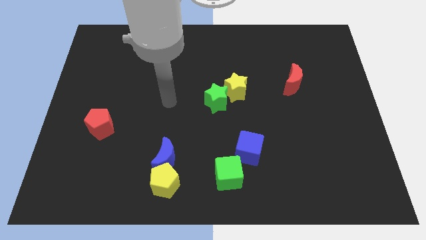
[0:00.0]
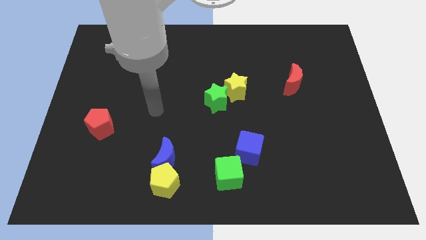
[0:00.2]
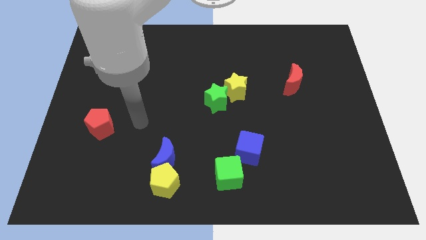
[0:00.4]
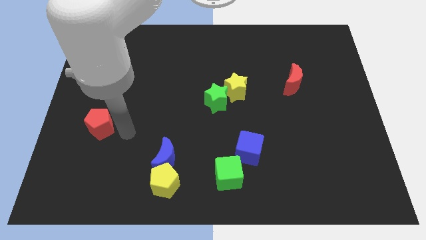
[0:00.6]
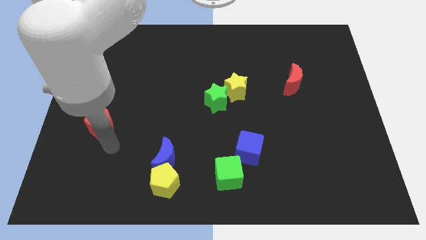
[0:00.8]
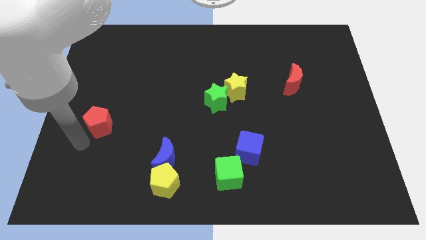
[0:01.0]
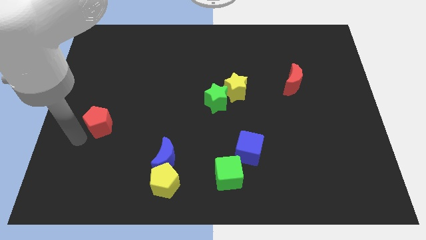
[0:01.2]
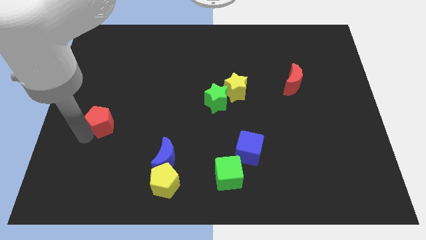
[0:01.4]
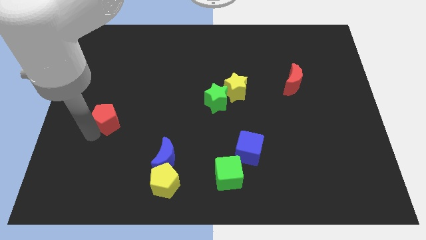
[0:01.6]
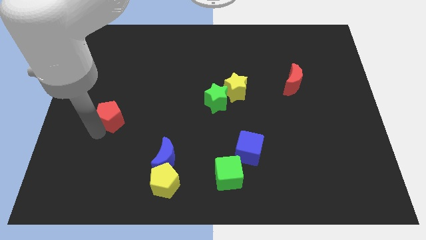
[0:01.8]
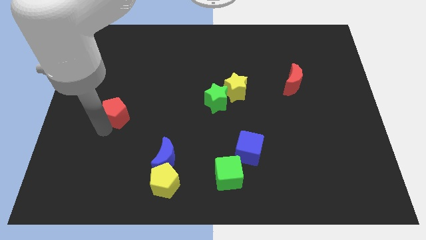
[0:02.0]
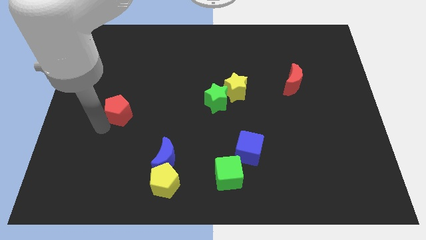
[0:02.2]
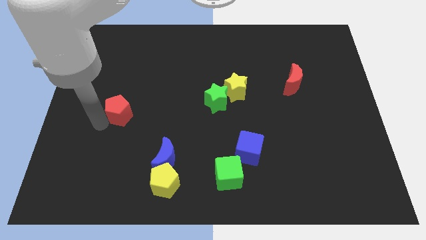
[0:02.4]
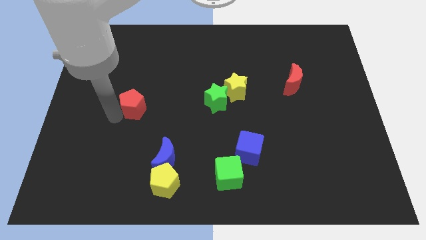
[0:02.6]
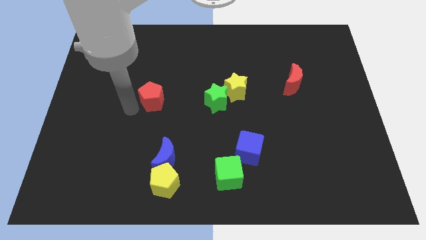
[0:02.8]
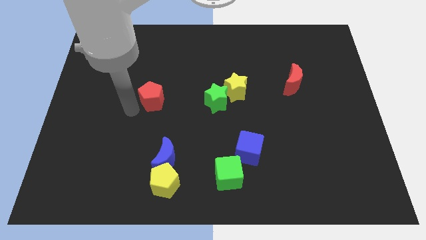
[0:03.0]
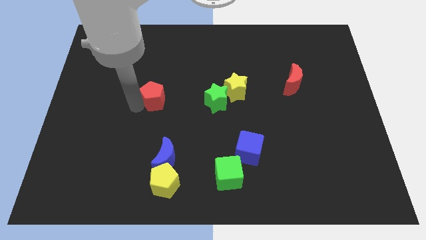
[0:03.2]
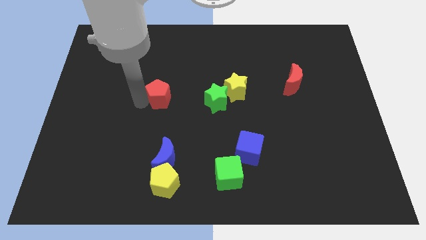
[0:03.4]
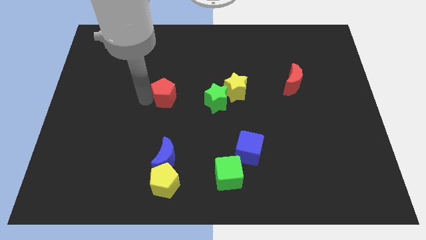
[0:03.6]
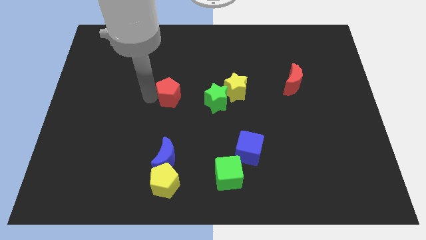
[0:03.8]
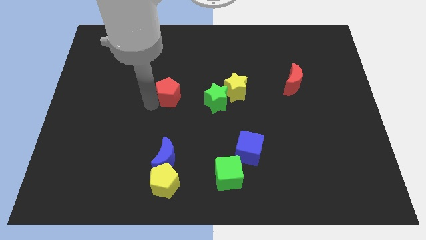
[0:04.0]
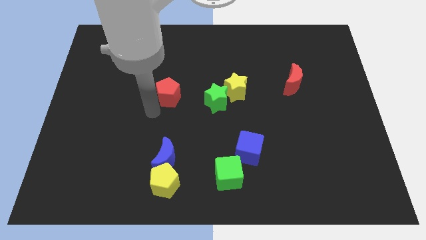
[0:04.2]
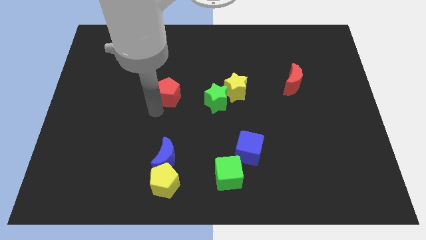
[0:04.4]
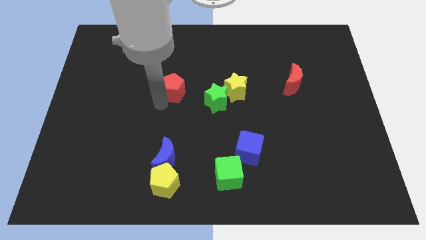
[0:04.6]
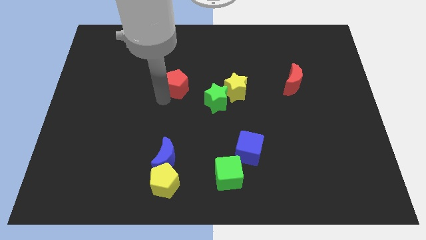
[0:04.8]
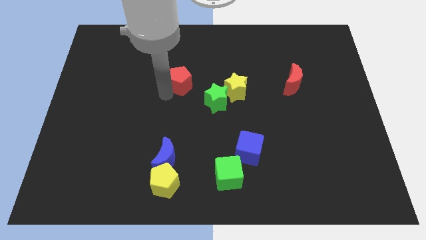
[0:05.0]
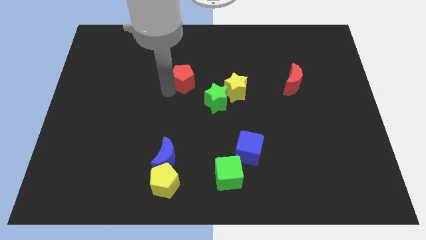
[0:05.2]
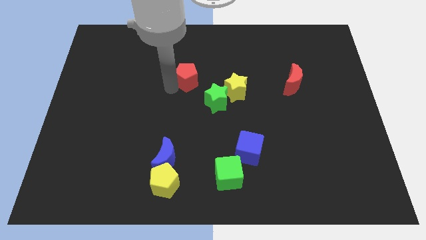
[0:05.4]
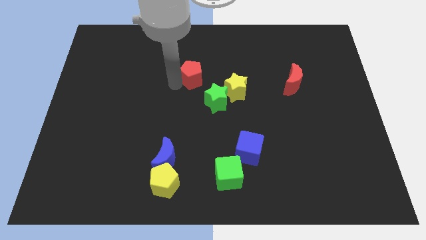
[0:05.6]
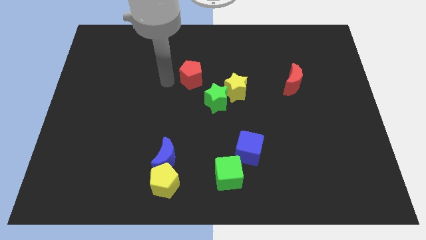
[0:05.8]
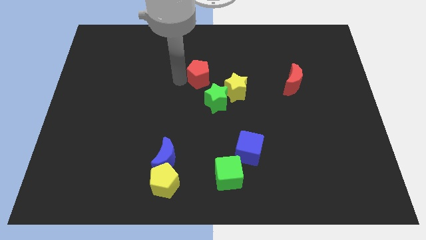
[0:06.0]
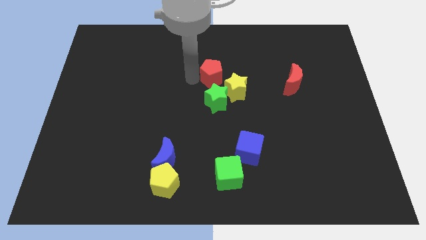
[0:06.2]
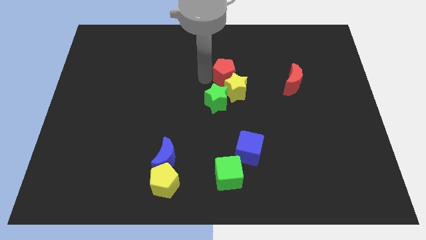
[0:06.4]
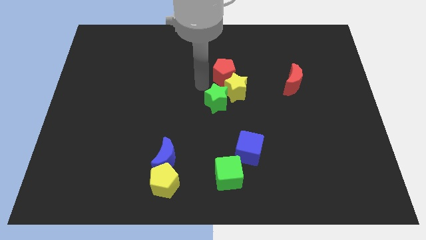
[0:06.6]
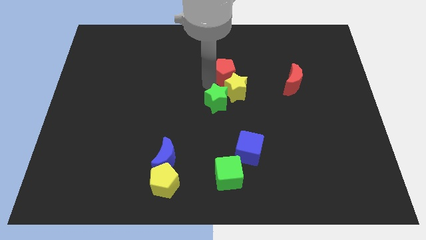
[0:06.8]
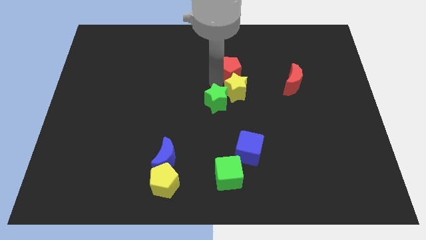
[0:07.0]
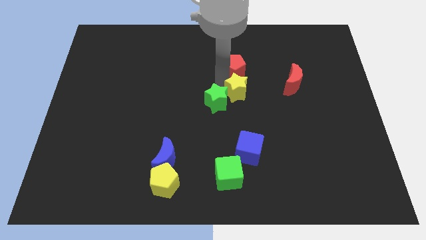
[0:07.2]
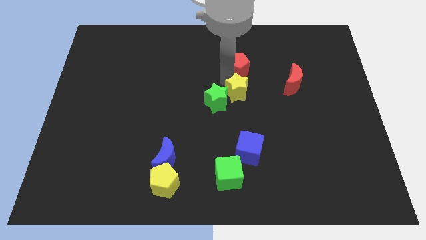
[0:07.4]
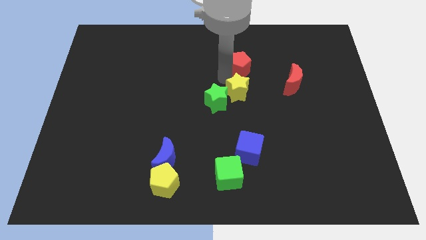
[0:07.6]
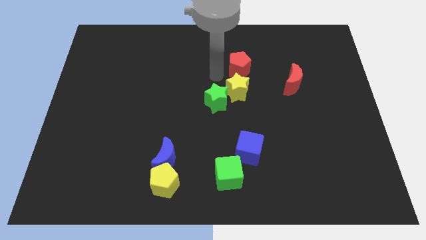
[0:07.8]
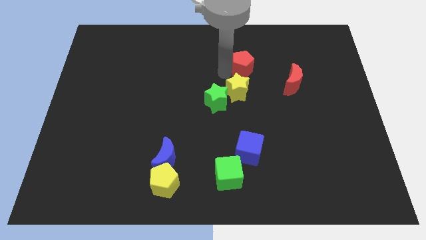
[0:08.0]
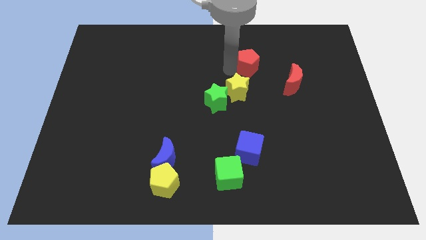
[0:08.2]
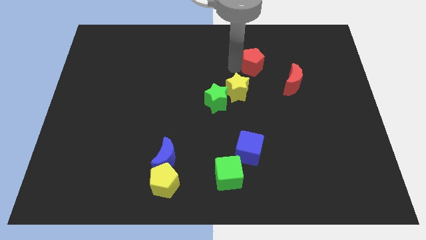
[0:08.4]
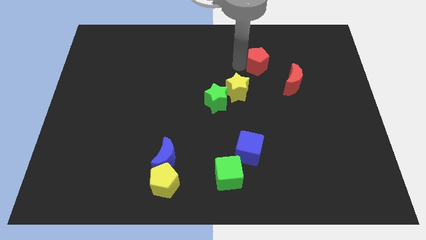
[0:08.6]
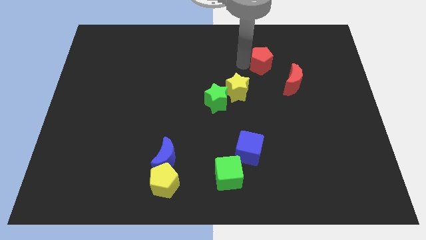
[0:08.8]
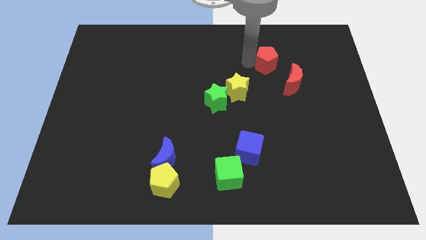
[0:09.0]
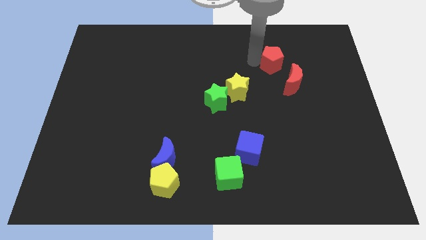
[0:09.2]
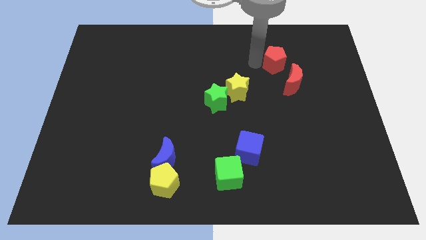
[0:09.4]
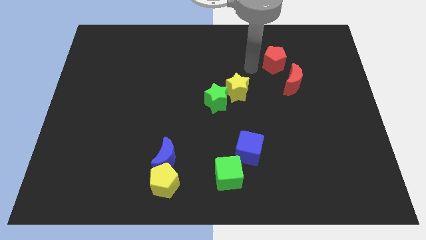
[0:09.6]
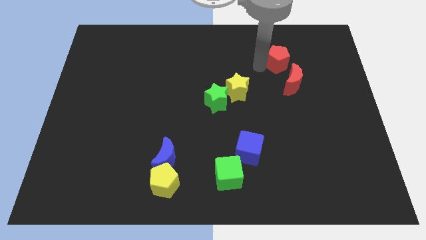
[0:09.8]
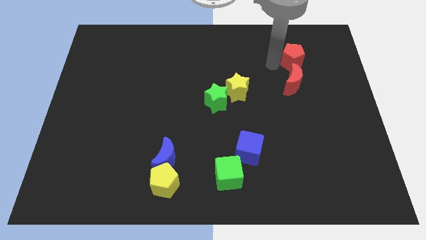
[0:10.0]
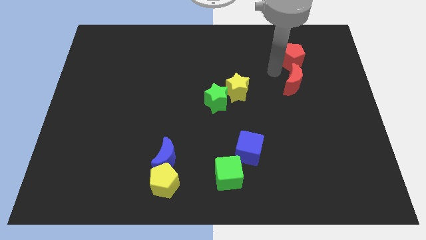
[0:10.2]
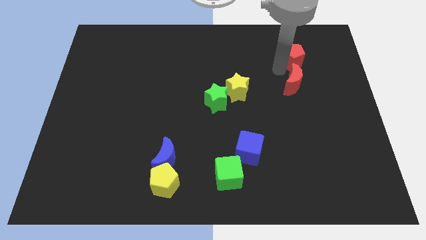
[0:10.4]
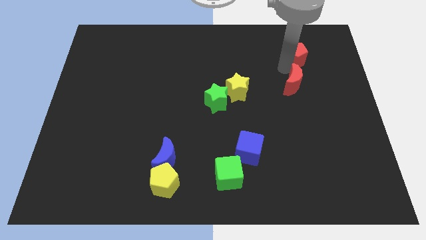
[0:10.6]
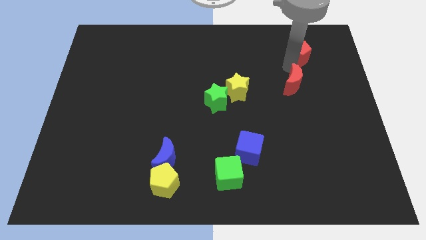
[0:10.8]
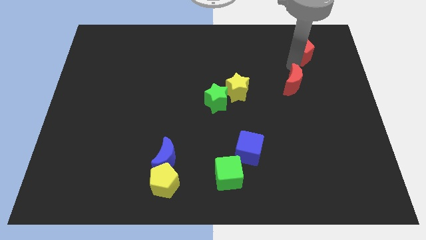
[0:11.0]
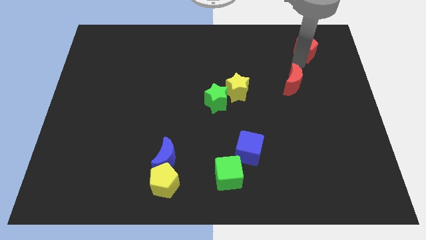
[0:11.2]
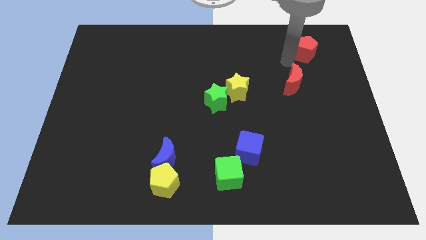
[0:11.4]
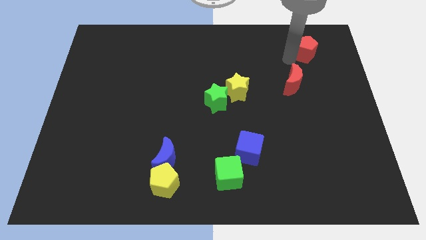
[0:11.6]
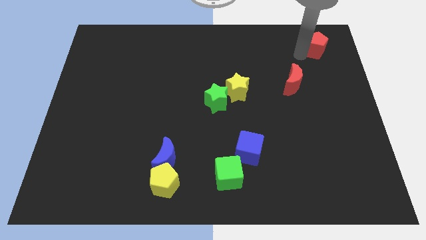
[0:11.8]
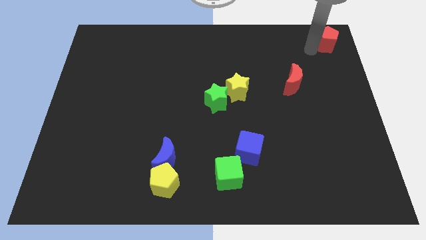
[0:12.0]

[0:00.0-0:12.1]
put the red pentagon to the top right corner

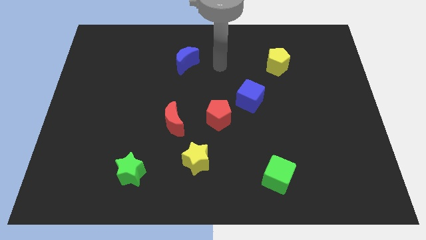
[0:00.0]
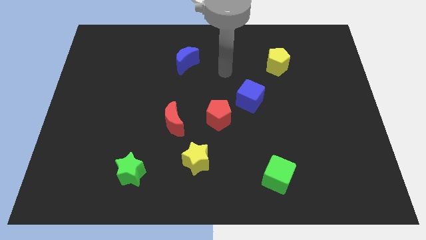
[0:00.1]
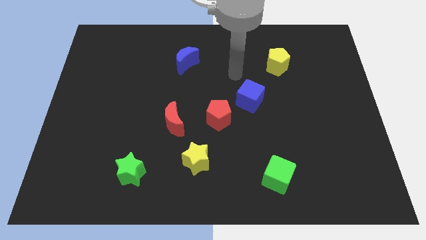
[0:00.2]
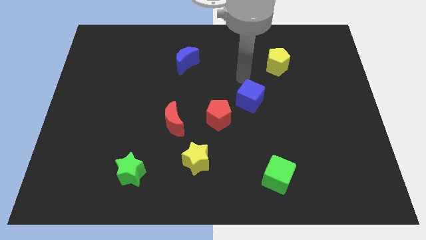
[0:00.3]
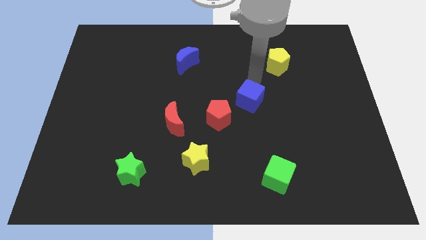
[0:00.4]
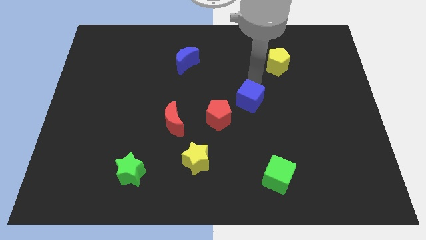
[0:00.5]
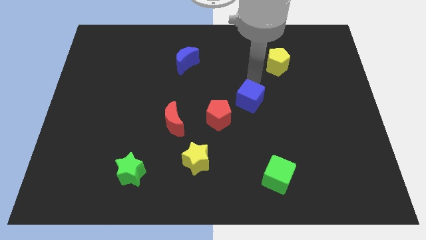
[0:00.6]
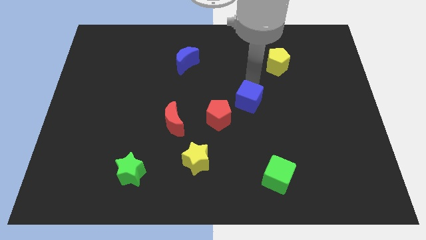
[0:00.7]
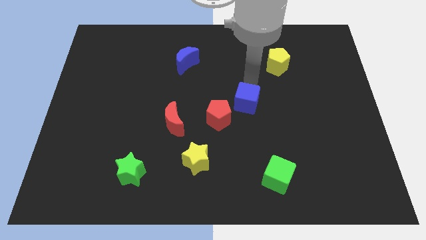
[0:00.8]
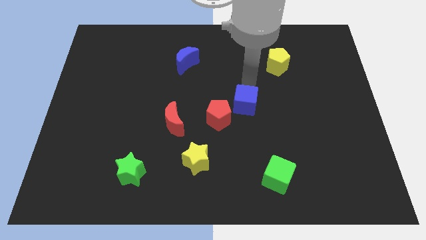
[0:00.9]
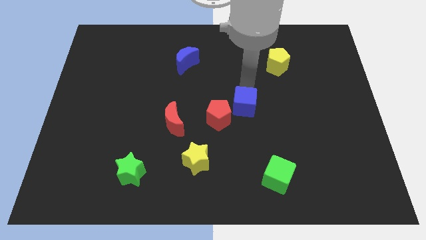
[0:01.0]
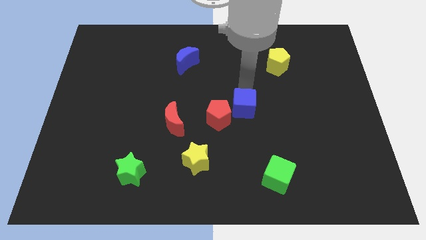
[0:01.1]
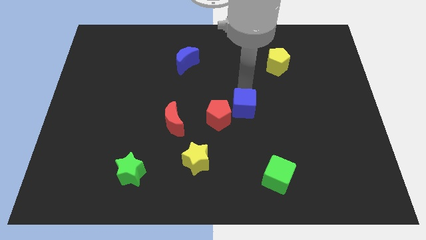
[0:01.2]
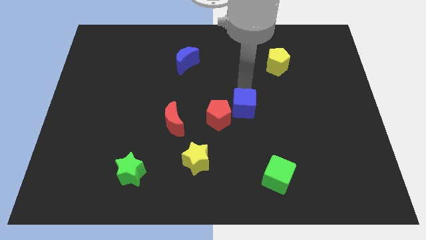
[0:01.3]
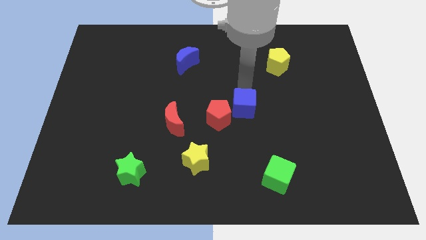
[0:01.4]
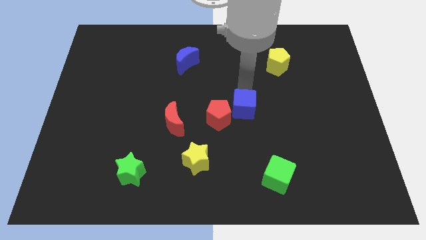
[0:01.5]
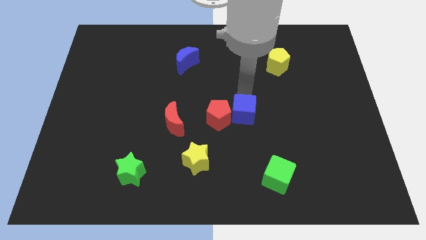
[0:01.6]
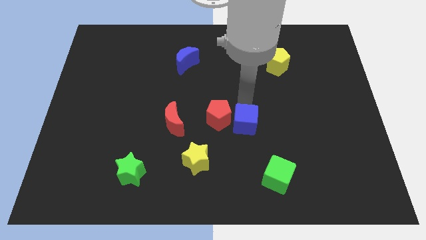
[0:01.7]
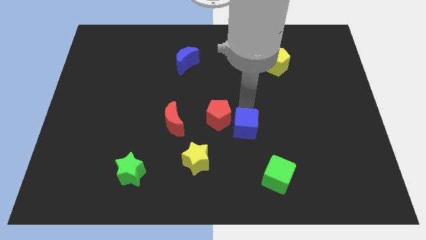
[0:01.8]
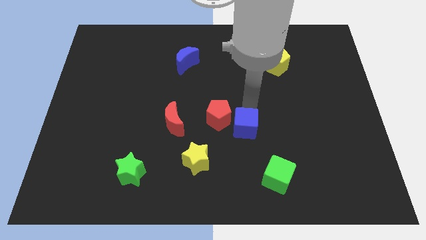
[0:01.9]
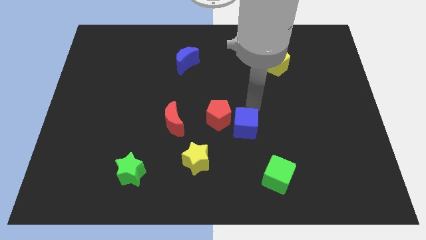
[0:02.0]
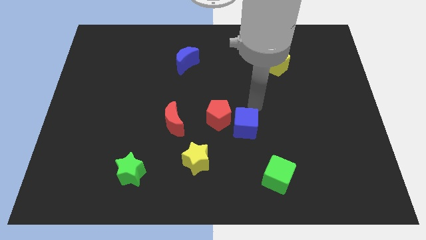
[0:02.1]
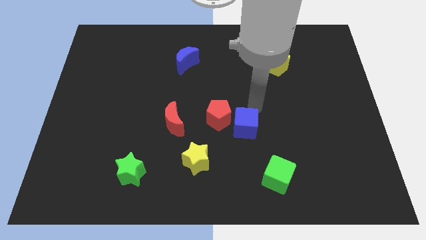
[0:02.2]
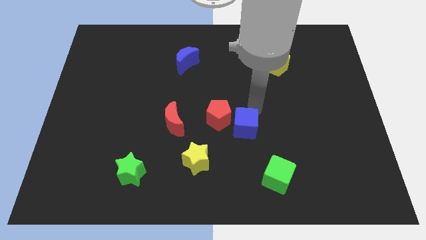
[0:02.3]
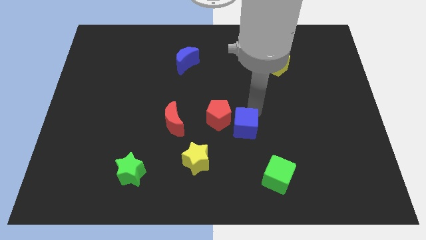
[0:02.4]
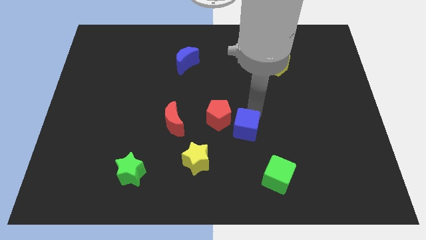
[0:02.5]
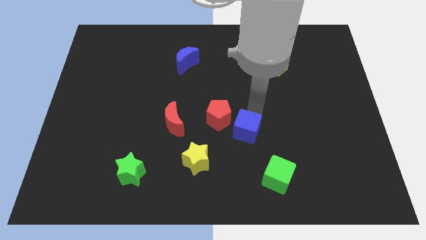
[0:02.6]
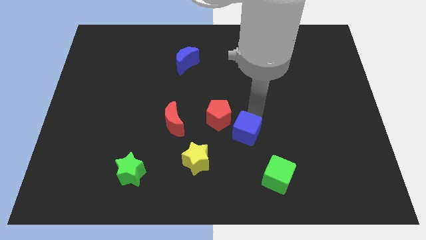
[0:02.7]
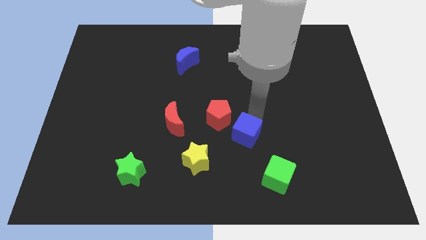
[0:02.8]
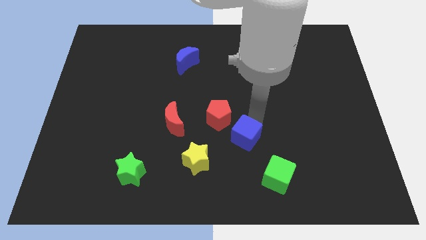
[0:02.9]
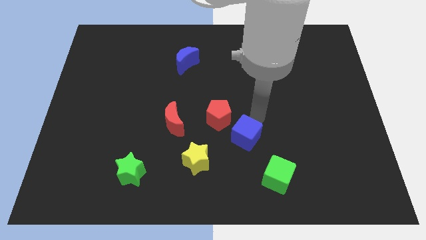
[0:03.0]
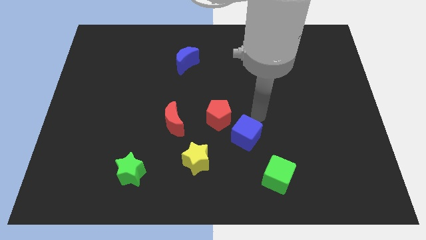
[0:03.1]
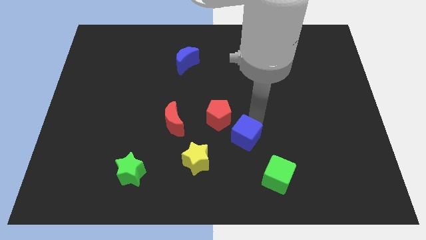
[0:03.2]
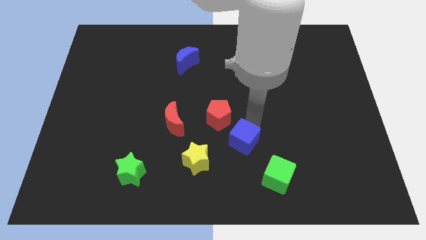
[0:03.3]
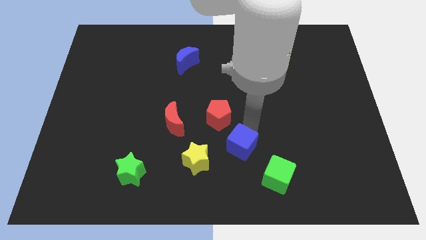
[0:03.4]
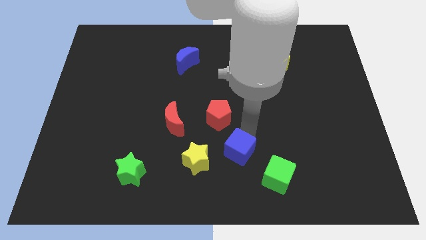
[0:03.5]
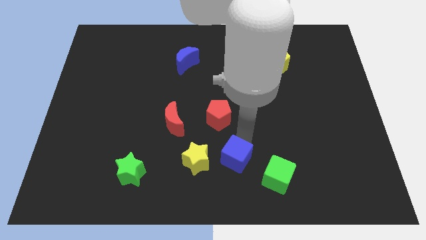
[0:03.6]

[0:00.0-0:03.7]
slide the blue cube to the bottom
